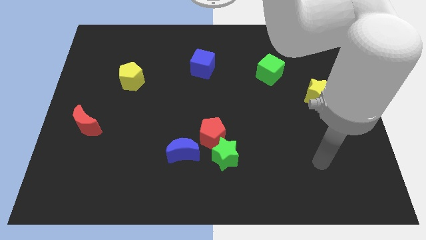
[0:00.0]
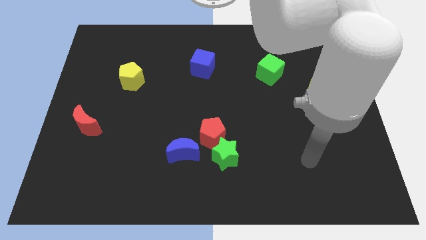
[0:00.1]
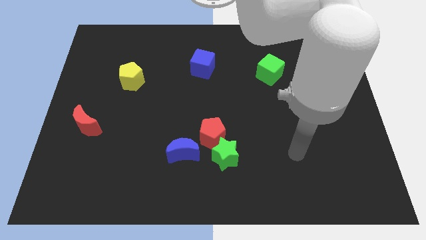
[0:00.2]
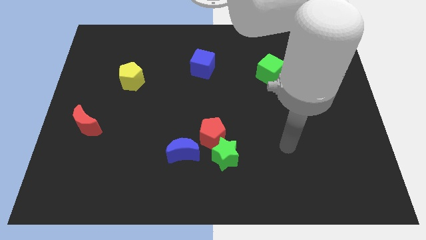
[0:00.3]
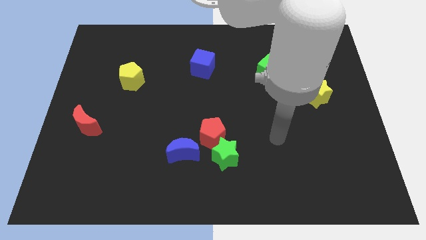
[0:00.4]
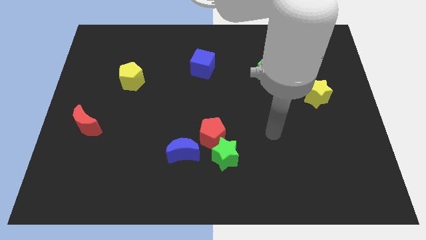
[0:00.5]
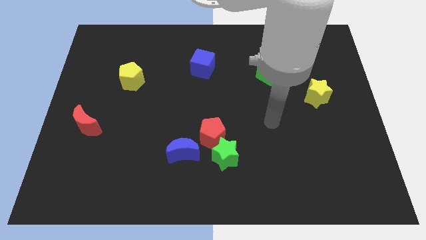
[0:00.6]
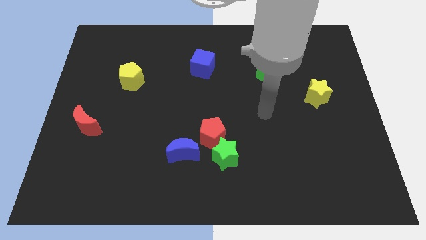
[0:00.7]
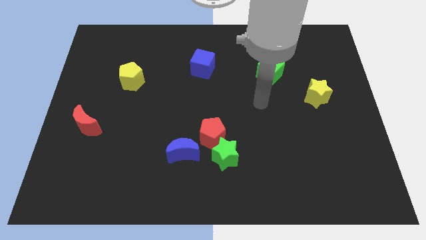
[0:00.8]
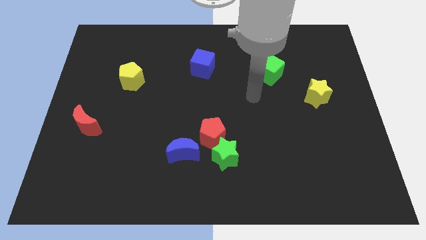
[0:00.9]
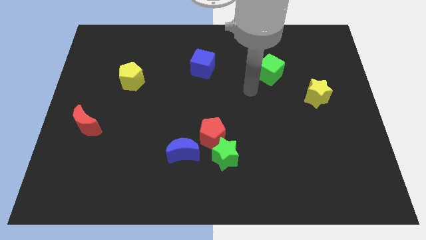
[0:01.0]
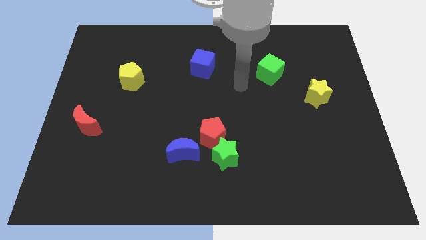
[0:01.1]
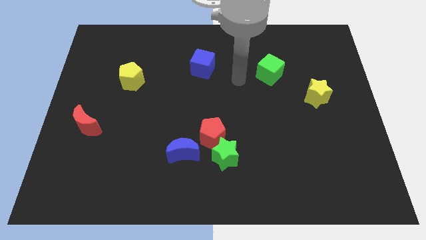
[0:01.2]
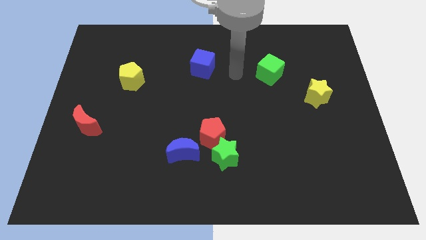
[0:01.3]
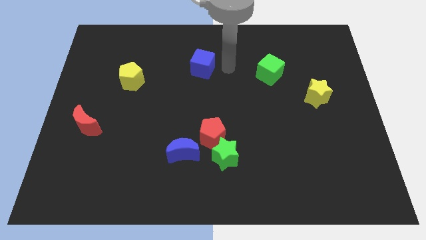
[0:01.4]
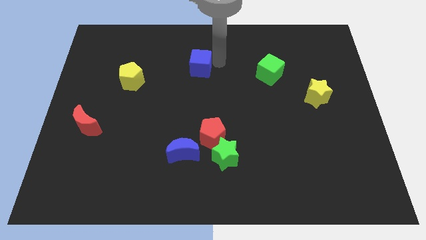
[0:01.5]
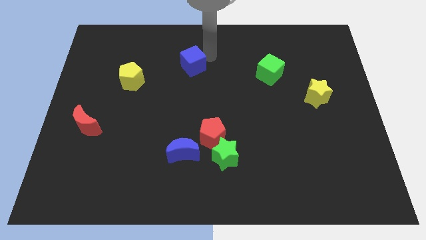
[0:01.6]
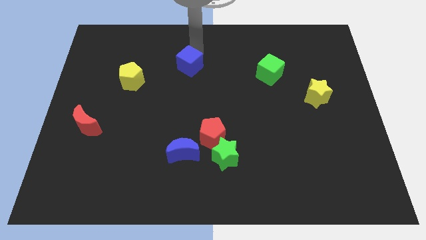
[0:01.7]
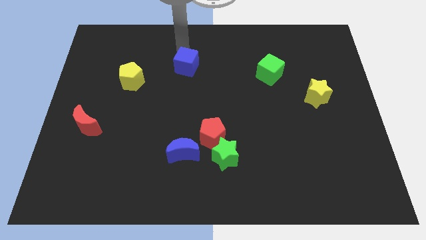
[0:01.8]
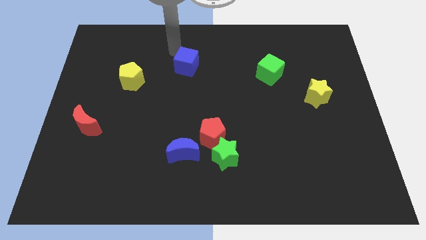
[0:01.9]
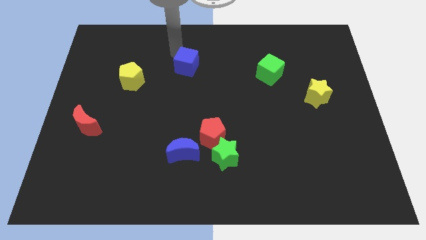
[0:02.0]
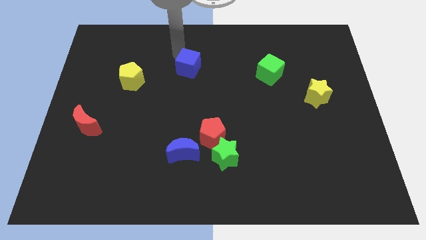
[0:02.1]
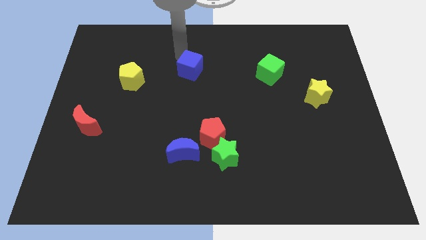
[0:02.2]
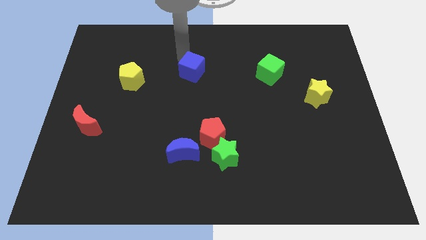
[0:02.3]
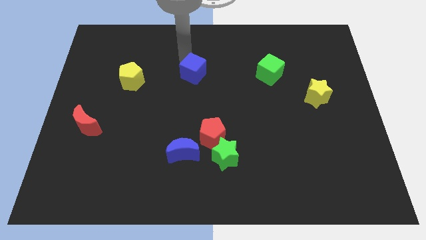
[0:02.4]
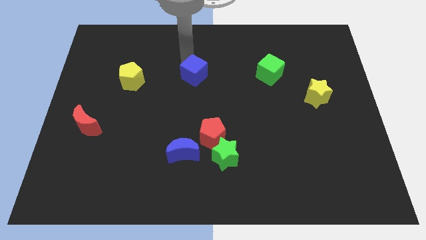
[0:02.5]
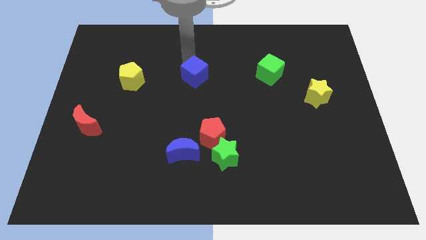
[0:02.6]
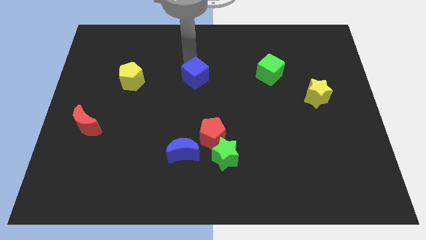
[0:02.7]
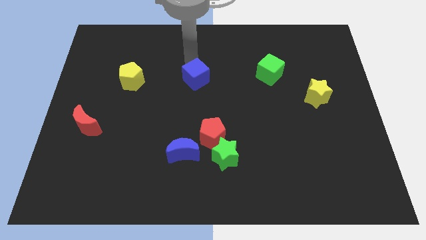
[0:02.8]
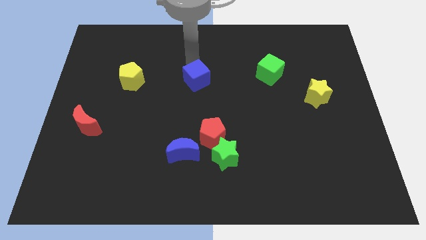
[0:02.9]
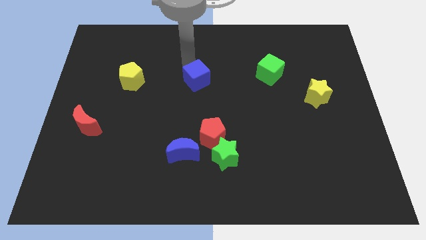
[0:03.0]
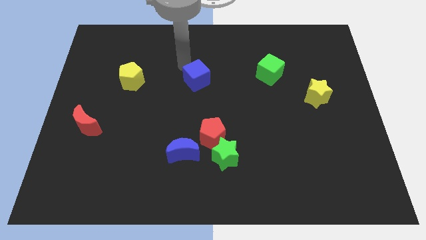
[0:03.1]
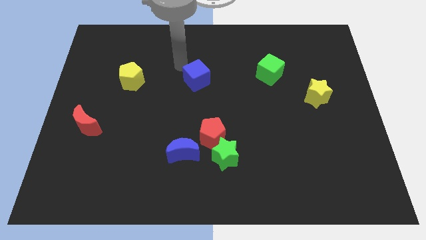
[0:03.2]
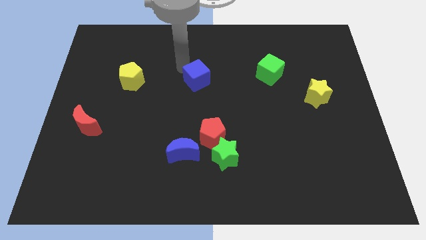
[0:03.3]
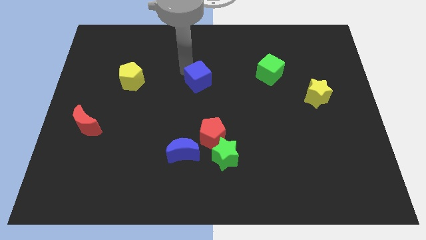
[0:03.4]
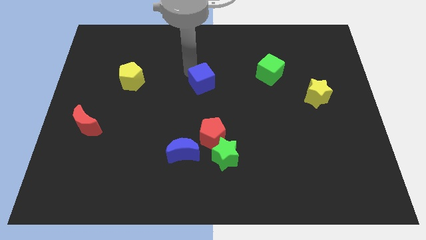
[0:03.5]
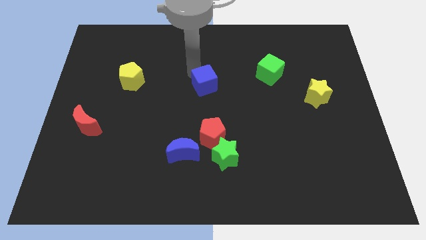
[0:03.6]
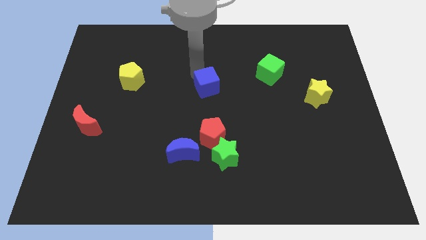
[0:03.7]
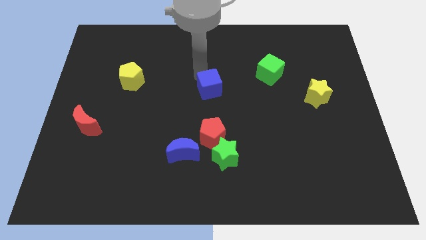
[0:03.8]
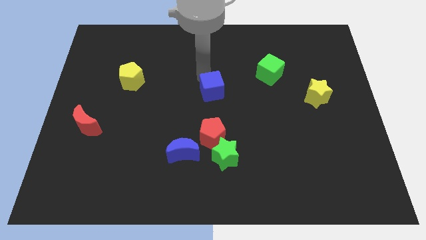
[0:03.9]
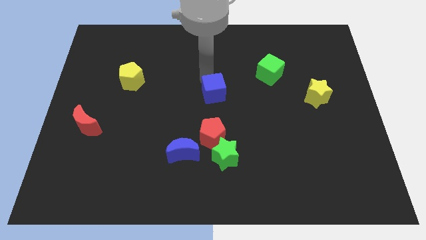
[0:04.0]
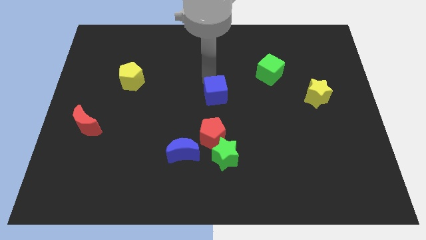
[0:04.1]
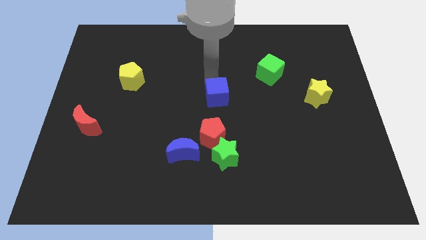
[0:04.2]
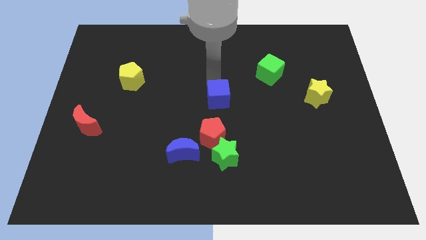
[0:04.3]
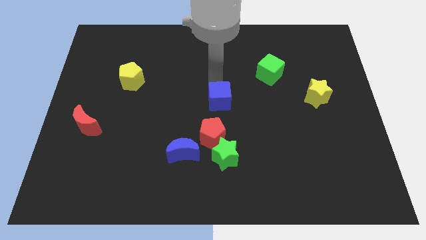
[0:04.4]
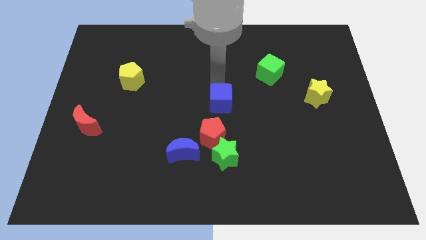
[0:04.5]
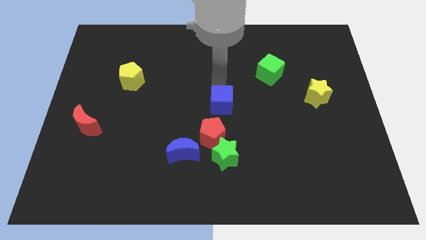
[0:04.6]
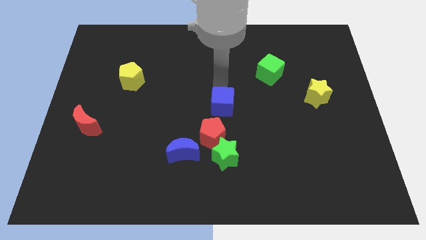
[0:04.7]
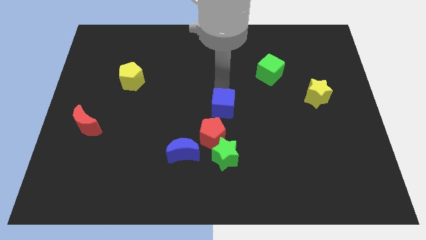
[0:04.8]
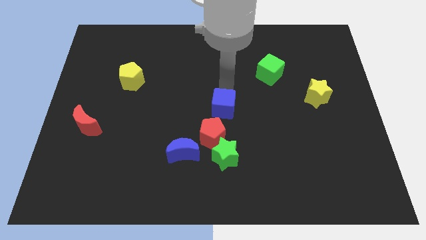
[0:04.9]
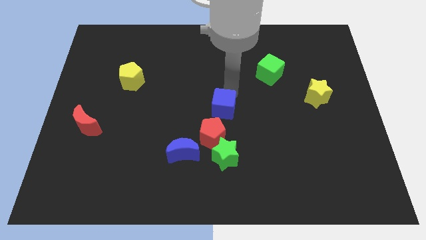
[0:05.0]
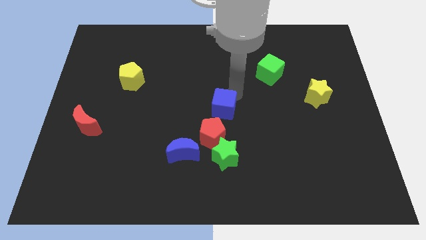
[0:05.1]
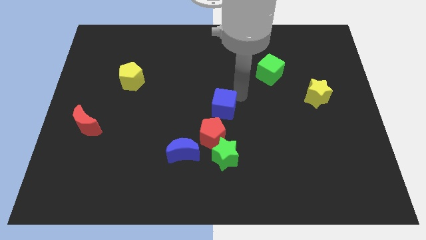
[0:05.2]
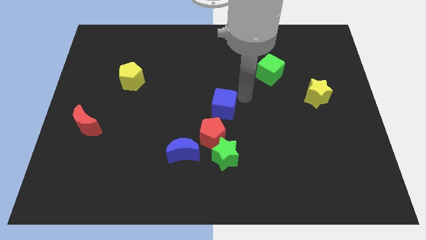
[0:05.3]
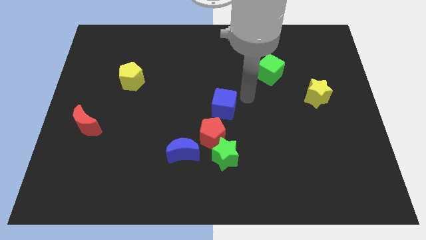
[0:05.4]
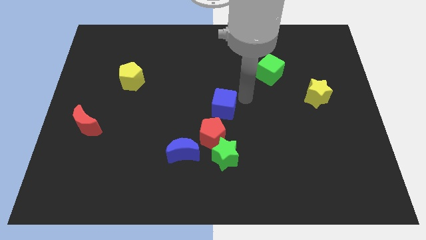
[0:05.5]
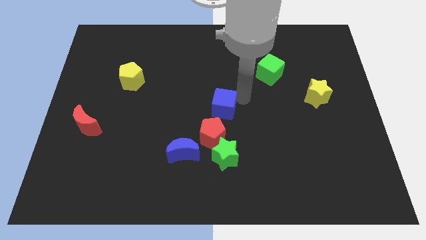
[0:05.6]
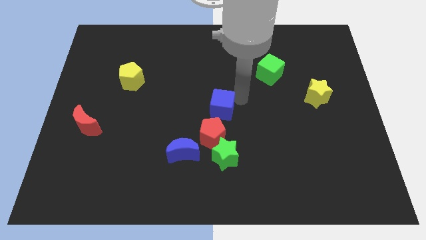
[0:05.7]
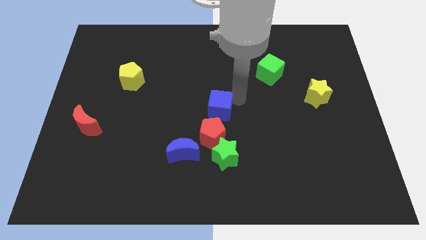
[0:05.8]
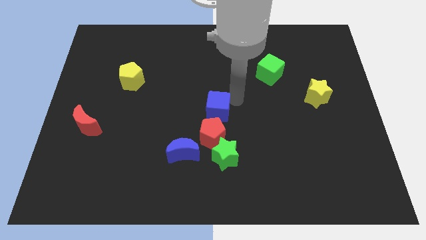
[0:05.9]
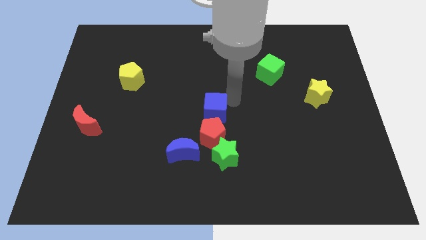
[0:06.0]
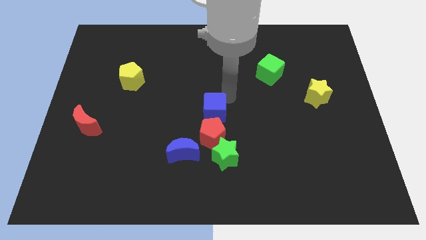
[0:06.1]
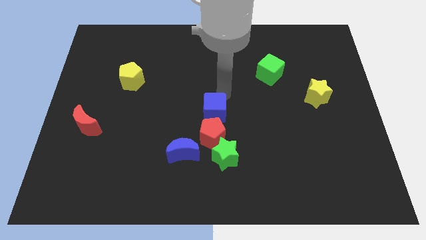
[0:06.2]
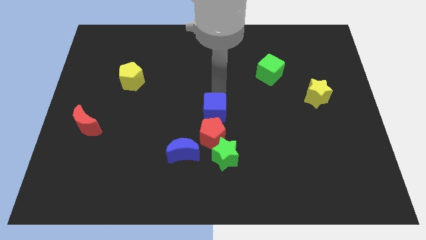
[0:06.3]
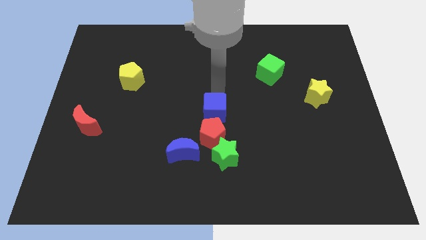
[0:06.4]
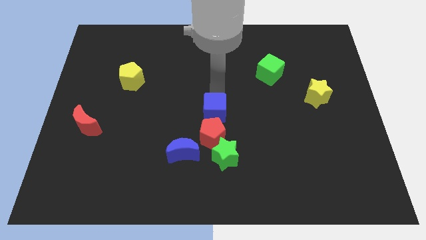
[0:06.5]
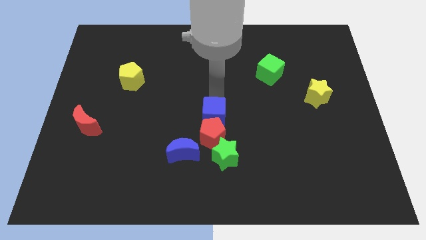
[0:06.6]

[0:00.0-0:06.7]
put the blue cube close to the red pentagon

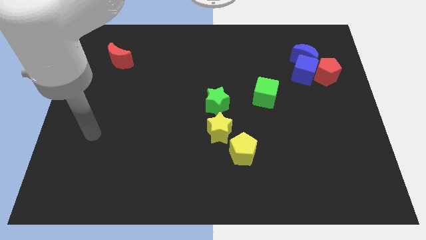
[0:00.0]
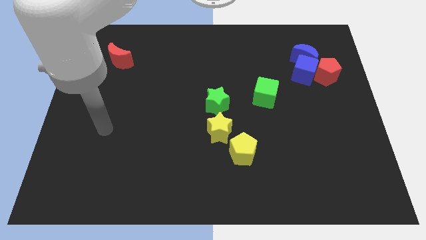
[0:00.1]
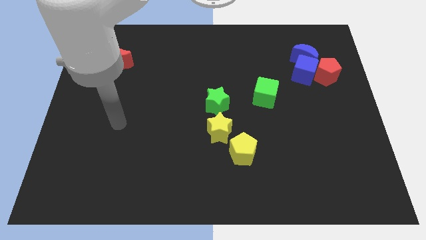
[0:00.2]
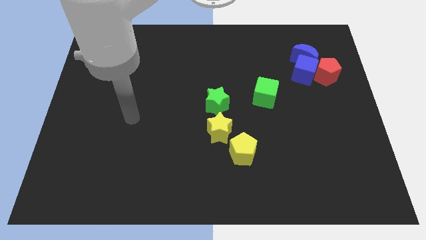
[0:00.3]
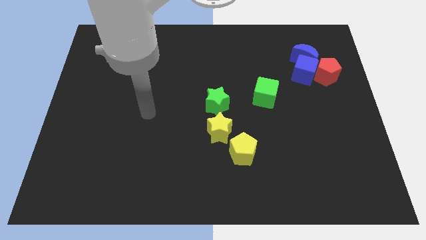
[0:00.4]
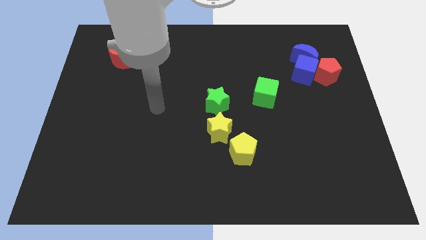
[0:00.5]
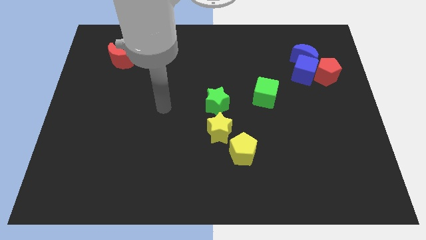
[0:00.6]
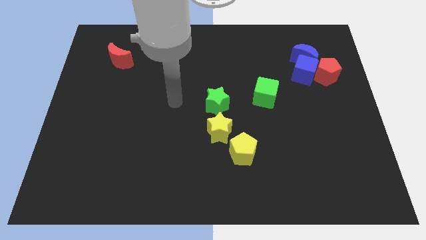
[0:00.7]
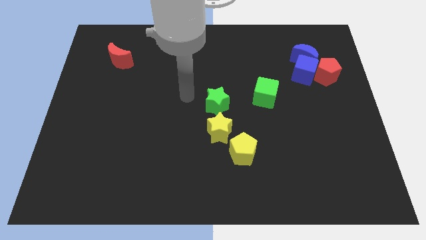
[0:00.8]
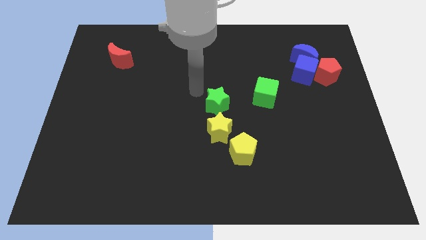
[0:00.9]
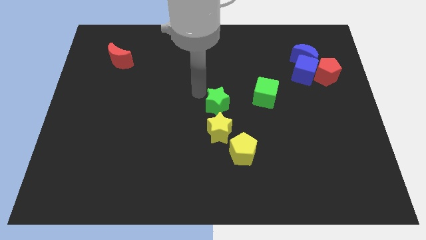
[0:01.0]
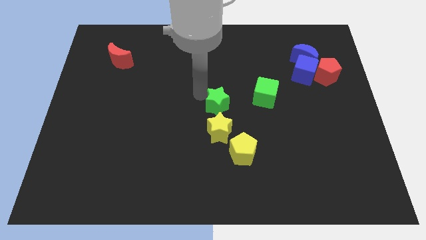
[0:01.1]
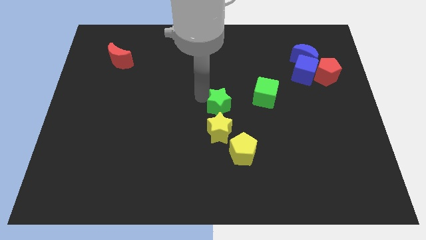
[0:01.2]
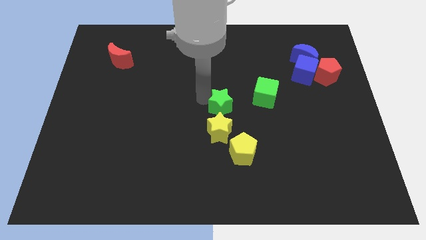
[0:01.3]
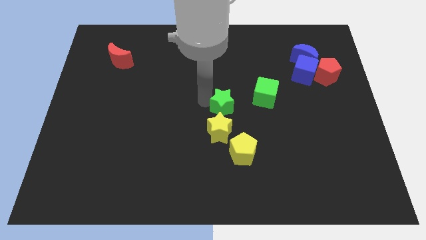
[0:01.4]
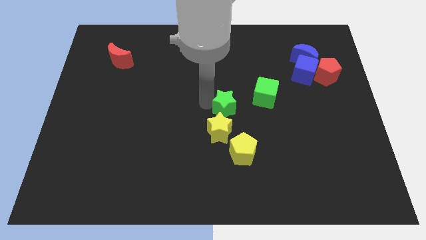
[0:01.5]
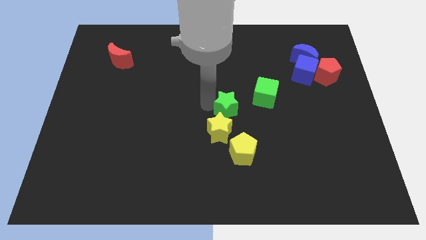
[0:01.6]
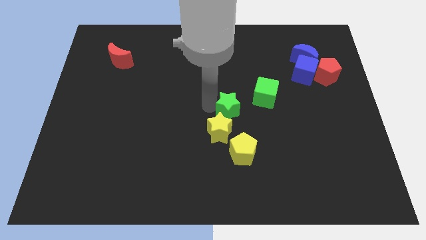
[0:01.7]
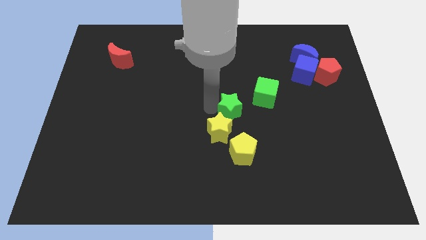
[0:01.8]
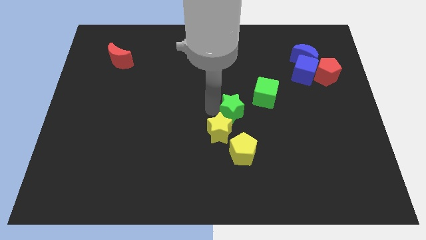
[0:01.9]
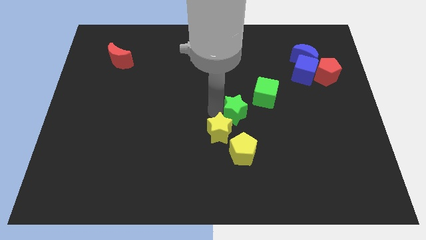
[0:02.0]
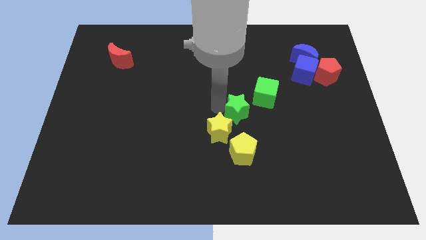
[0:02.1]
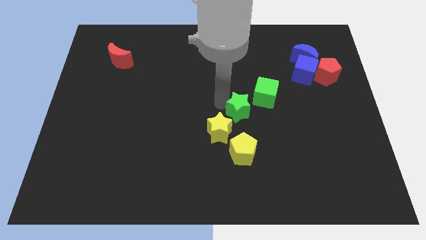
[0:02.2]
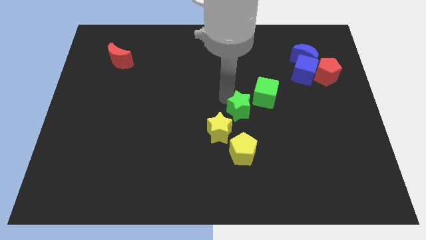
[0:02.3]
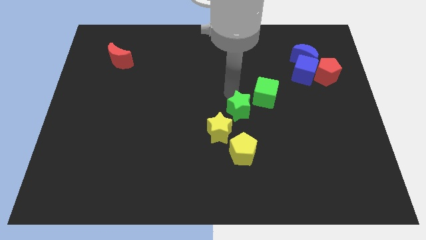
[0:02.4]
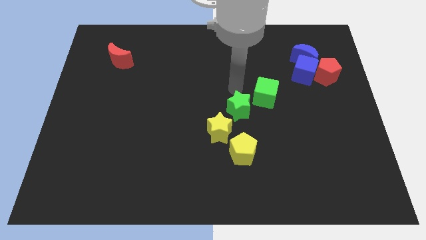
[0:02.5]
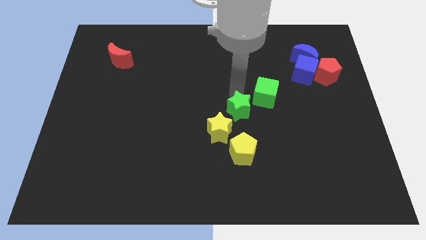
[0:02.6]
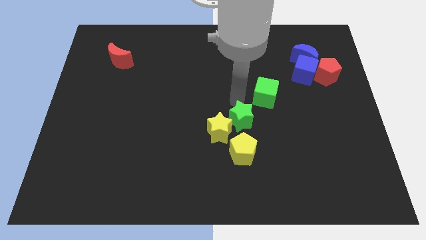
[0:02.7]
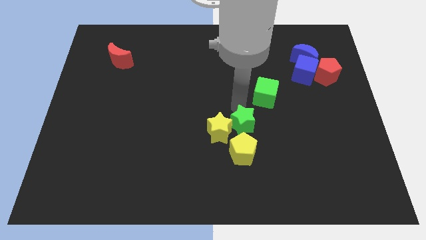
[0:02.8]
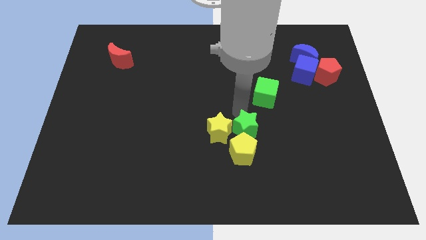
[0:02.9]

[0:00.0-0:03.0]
move the green star towards the yellow pentagon
